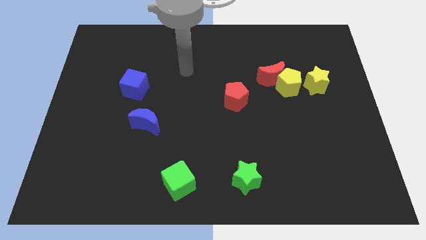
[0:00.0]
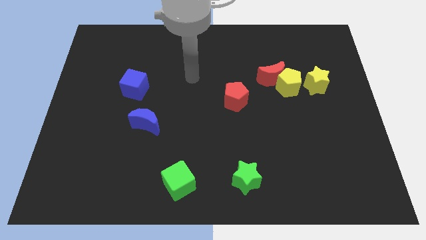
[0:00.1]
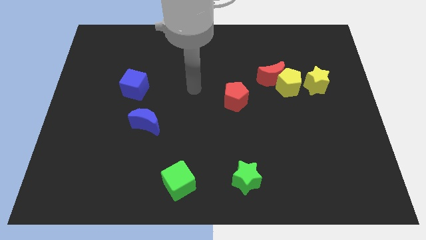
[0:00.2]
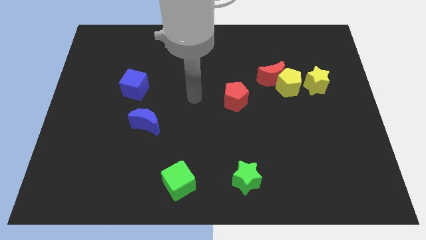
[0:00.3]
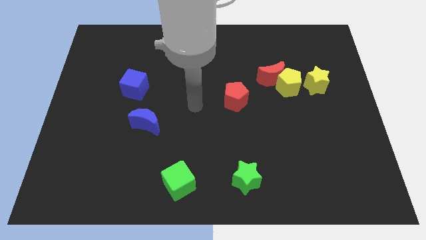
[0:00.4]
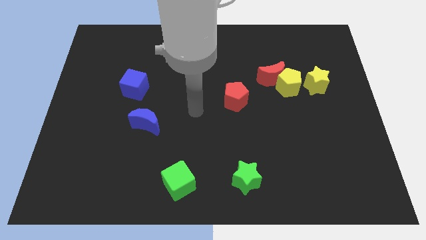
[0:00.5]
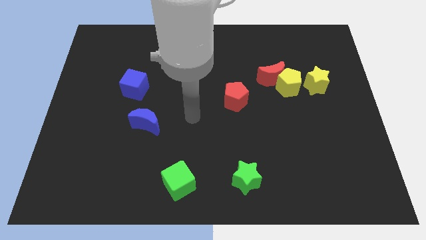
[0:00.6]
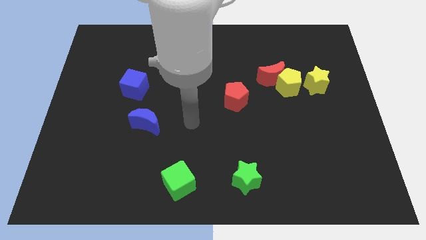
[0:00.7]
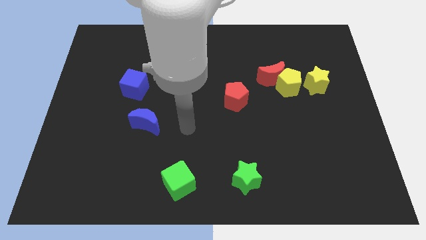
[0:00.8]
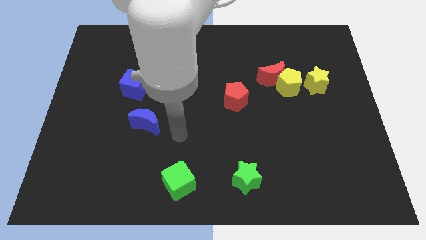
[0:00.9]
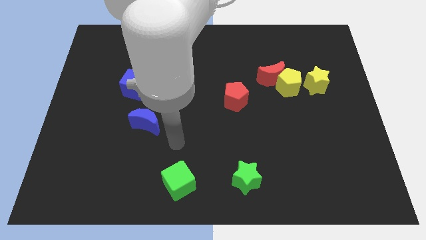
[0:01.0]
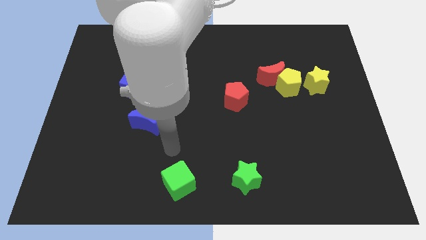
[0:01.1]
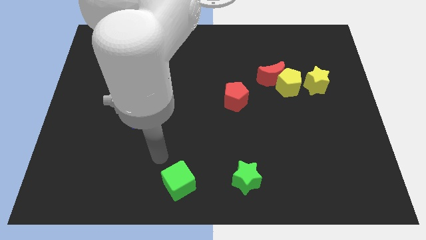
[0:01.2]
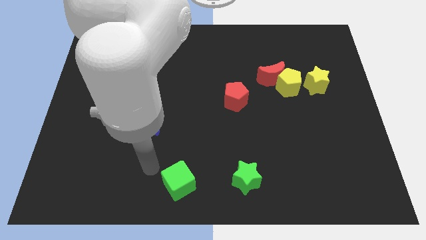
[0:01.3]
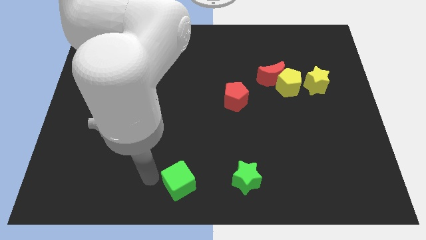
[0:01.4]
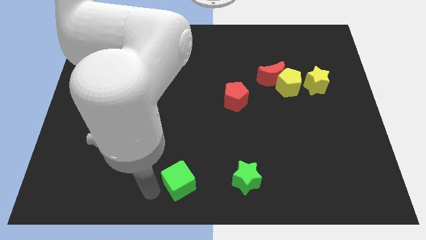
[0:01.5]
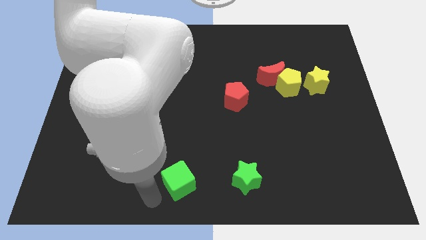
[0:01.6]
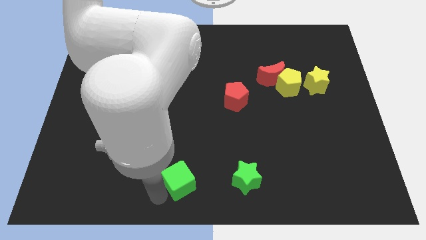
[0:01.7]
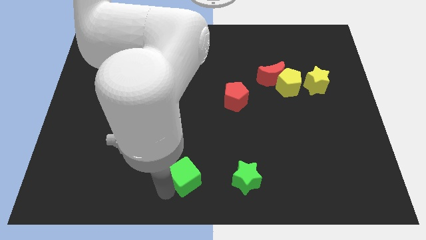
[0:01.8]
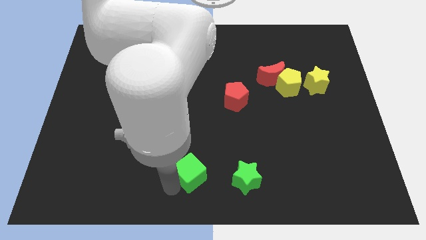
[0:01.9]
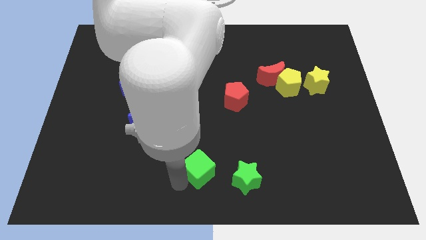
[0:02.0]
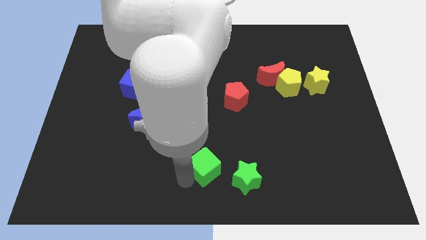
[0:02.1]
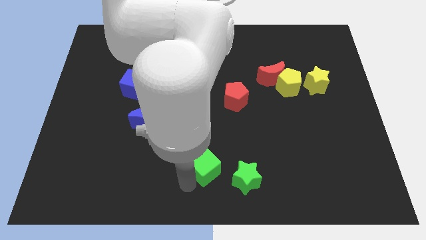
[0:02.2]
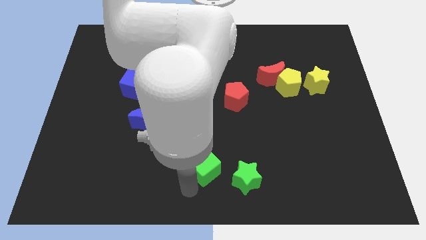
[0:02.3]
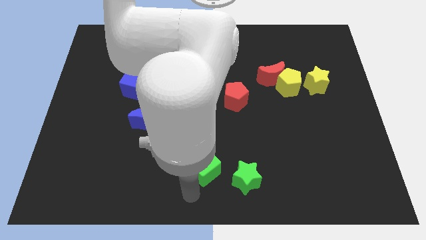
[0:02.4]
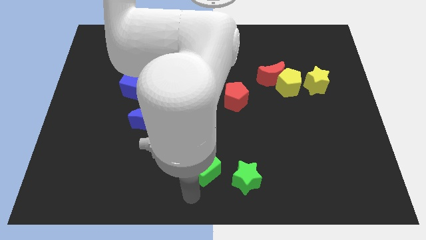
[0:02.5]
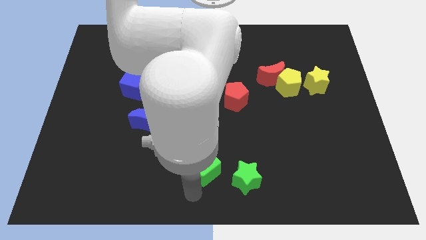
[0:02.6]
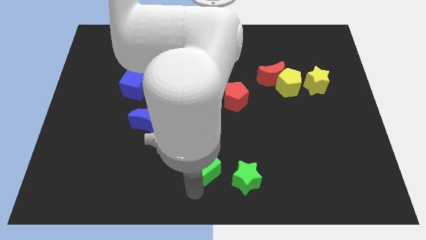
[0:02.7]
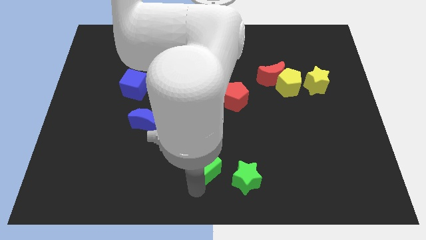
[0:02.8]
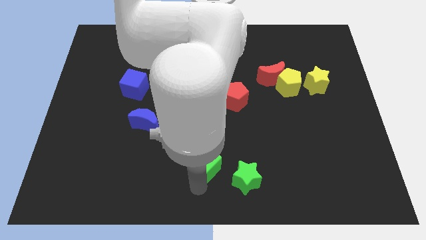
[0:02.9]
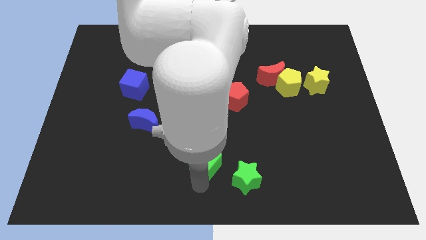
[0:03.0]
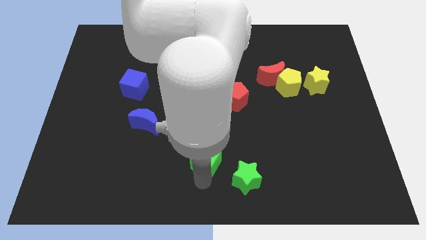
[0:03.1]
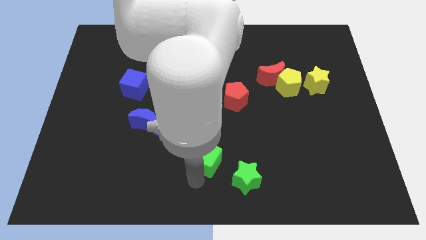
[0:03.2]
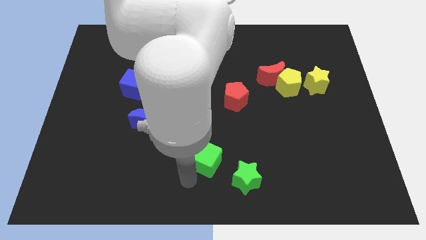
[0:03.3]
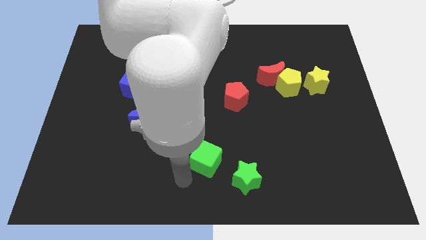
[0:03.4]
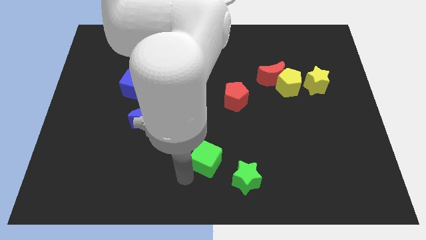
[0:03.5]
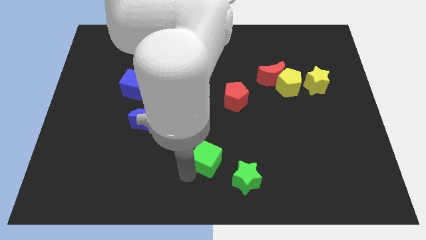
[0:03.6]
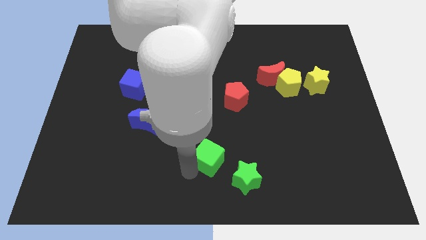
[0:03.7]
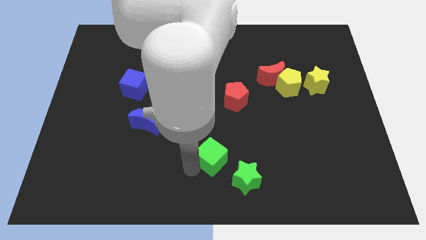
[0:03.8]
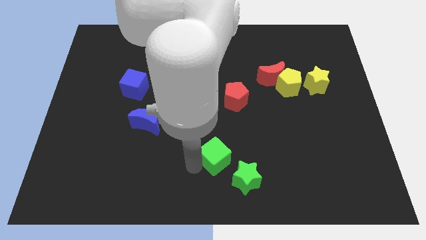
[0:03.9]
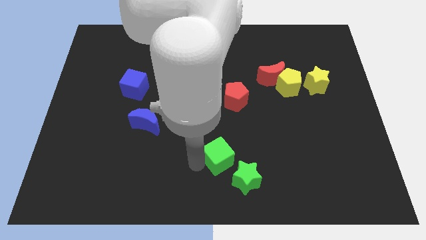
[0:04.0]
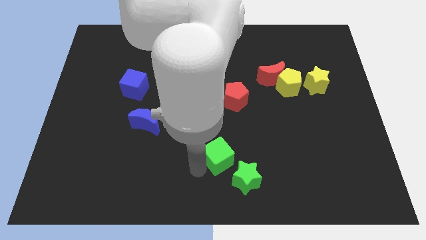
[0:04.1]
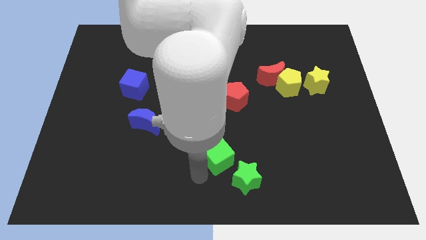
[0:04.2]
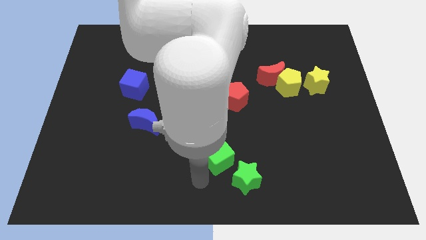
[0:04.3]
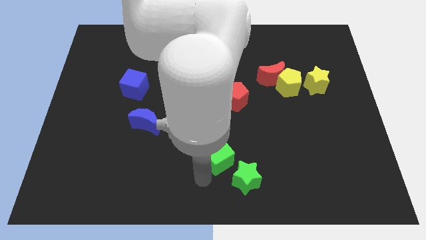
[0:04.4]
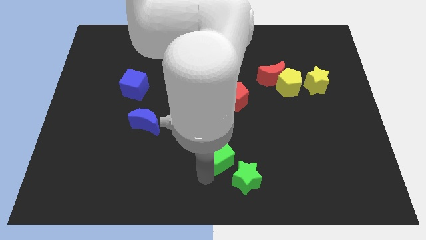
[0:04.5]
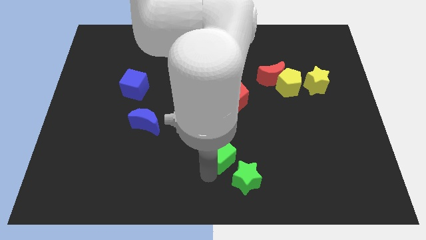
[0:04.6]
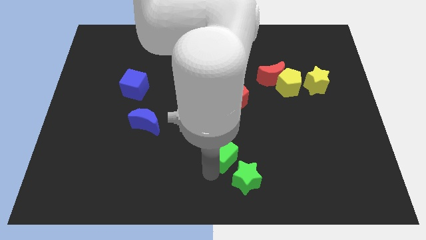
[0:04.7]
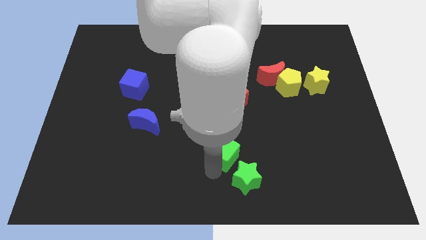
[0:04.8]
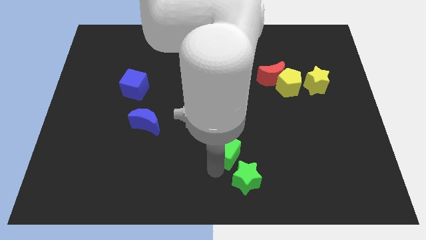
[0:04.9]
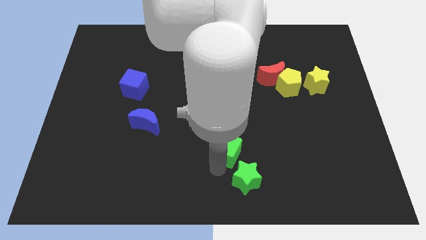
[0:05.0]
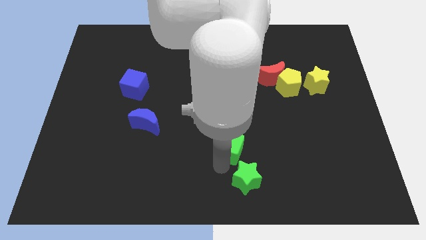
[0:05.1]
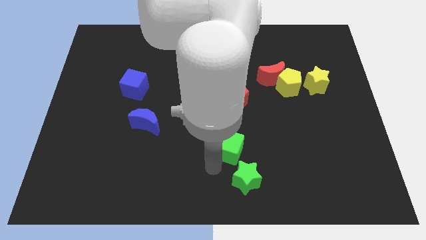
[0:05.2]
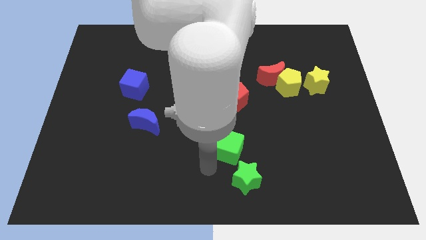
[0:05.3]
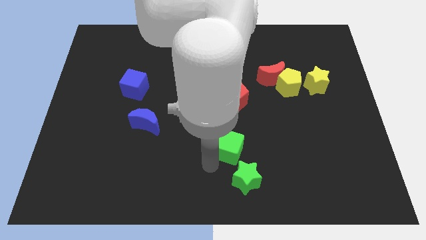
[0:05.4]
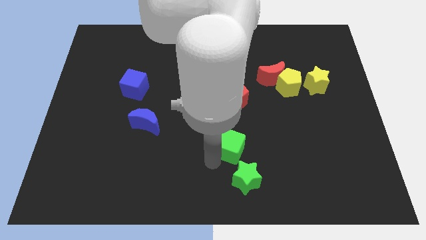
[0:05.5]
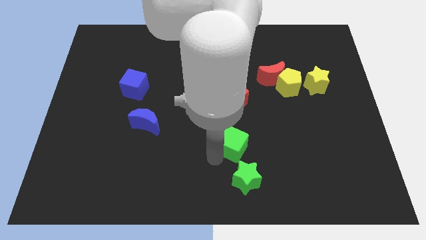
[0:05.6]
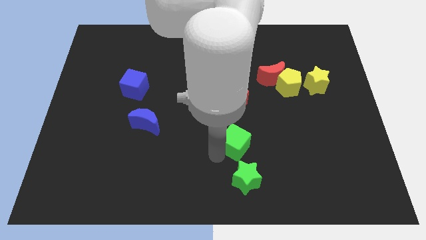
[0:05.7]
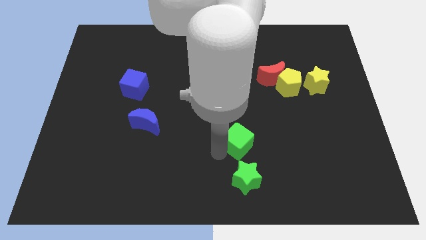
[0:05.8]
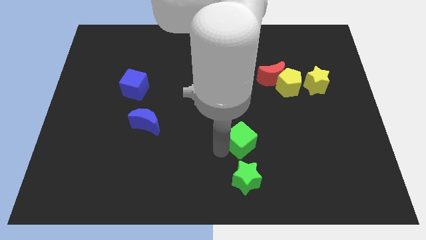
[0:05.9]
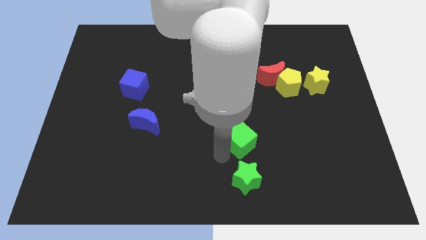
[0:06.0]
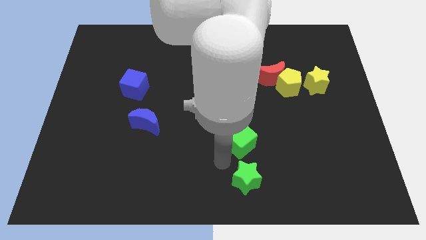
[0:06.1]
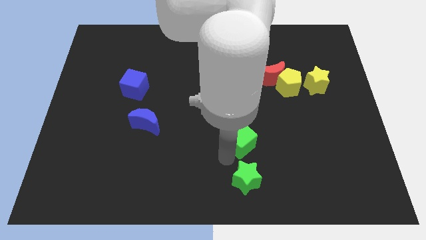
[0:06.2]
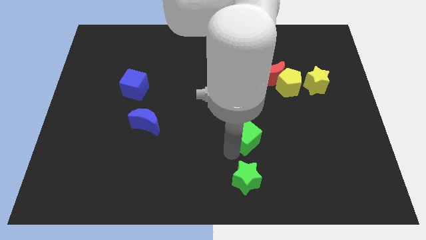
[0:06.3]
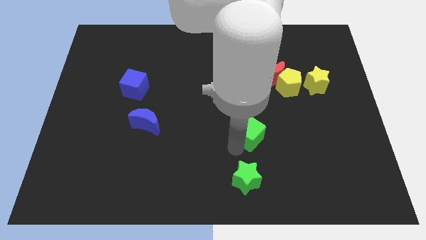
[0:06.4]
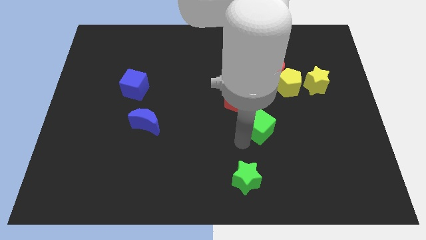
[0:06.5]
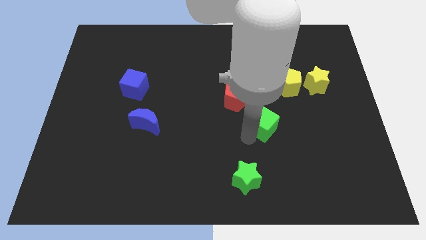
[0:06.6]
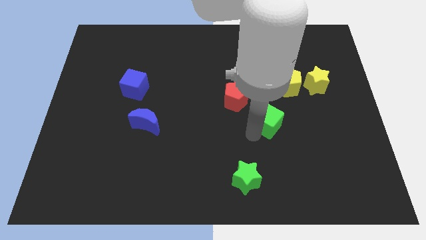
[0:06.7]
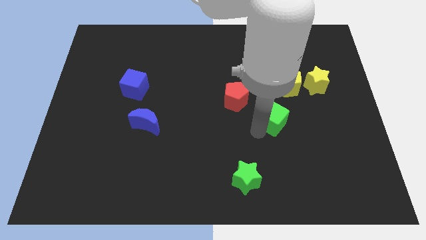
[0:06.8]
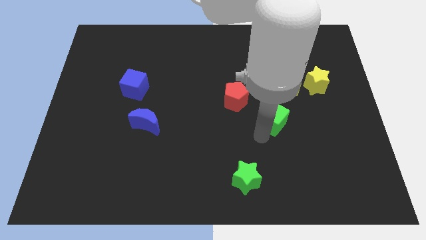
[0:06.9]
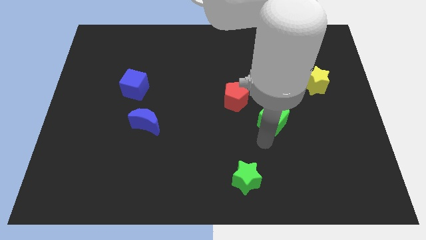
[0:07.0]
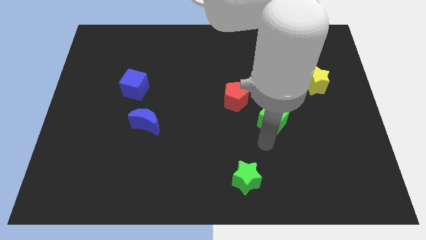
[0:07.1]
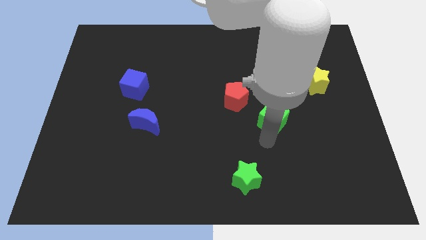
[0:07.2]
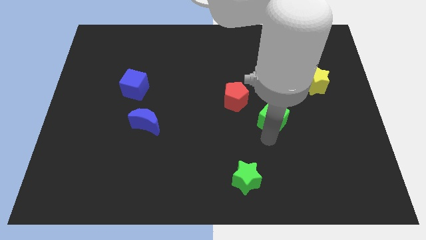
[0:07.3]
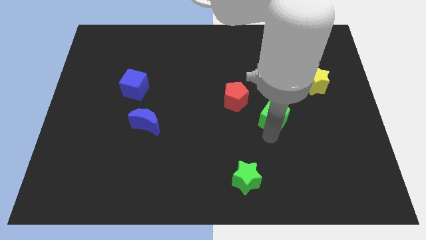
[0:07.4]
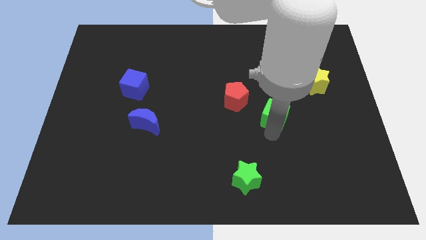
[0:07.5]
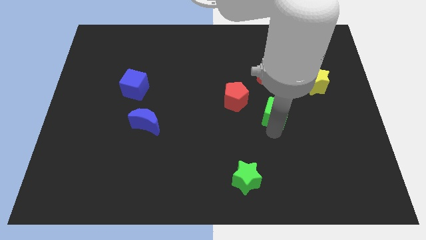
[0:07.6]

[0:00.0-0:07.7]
slide the green cube to the right of the red pentagon
